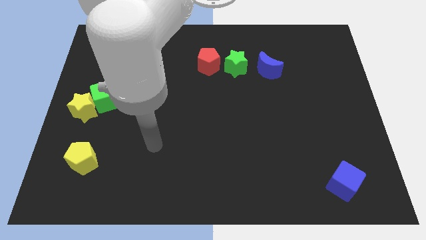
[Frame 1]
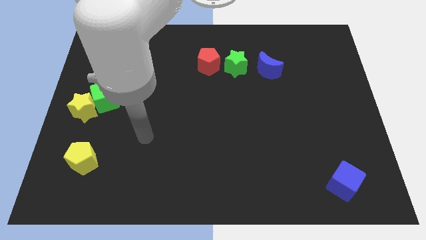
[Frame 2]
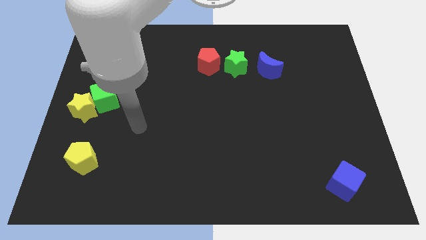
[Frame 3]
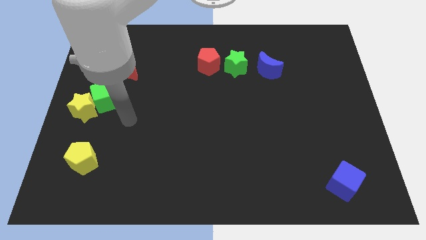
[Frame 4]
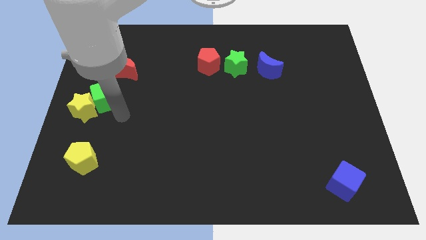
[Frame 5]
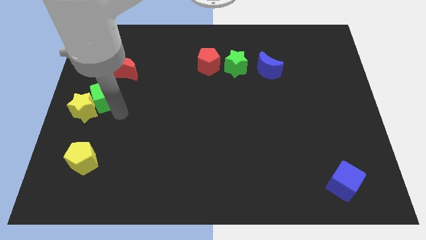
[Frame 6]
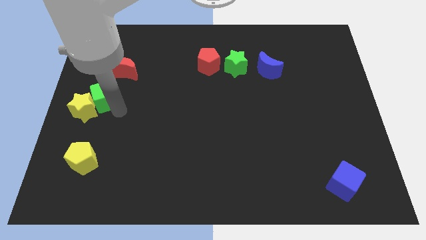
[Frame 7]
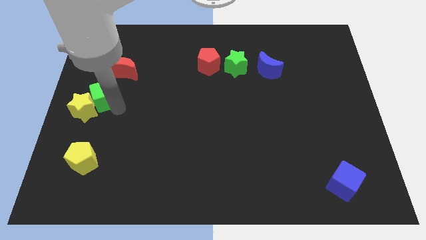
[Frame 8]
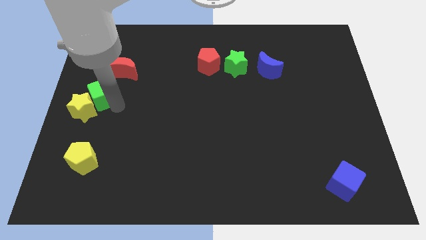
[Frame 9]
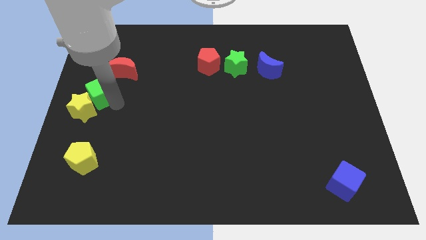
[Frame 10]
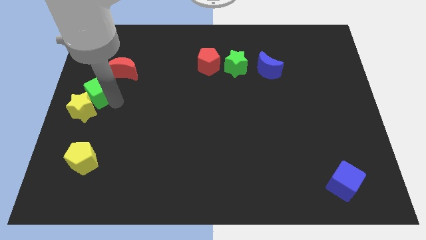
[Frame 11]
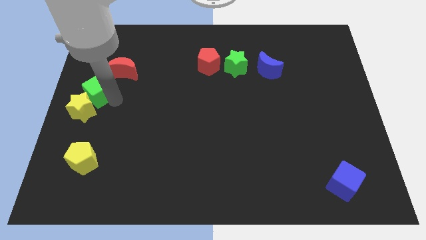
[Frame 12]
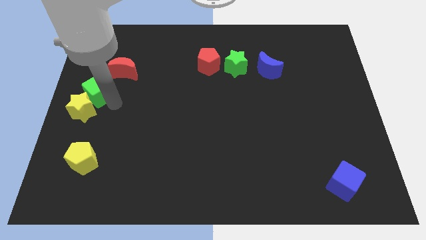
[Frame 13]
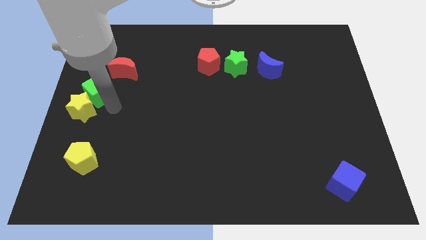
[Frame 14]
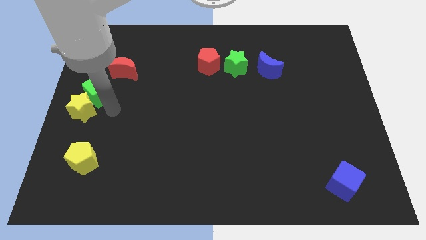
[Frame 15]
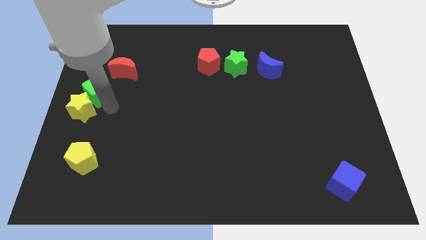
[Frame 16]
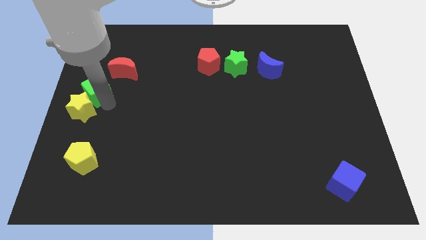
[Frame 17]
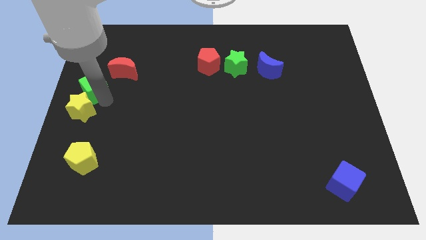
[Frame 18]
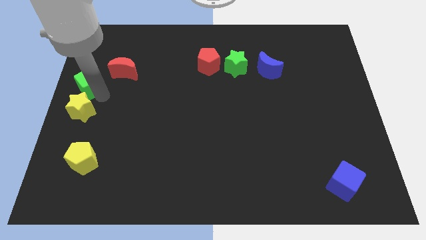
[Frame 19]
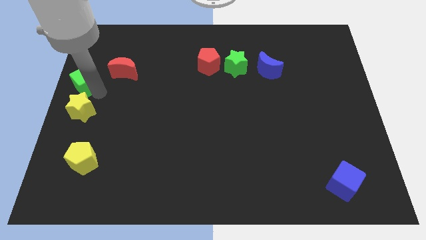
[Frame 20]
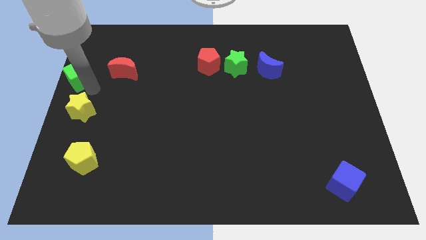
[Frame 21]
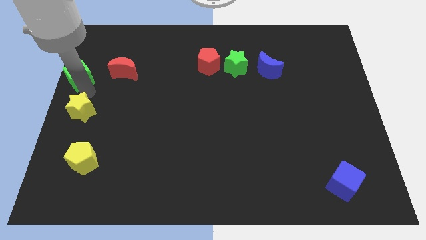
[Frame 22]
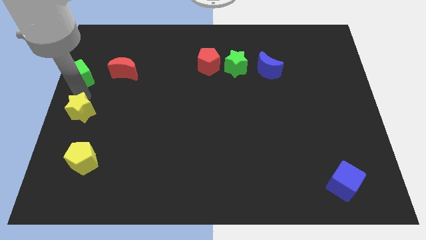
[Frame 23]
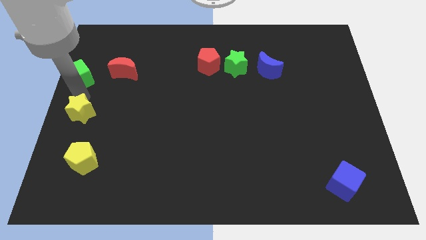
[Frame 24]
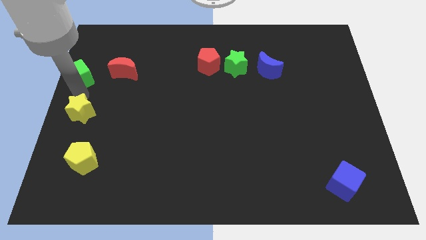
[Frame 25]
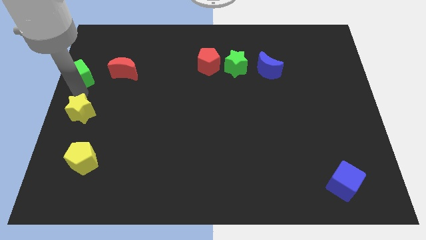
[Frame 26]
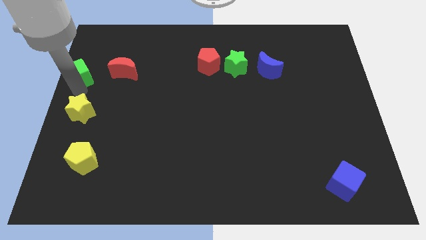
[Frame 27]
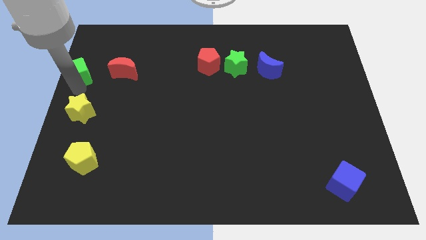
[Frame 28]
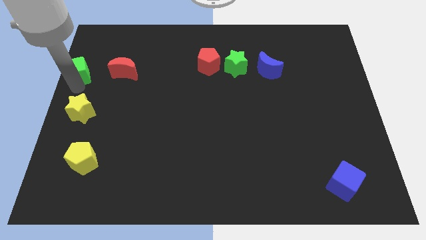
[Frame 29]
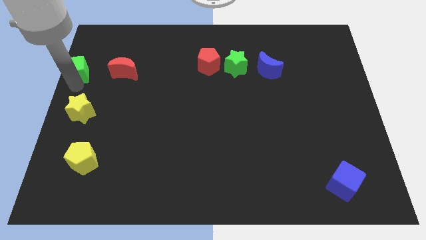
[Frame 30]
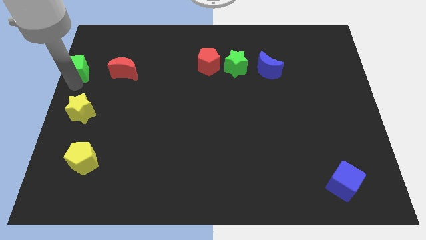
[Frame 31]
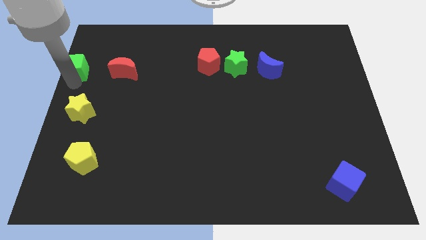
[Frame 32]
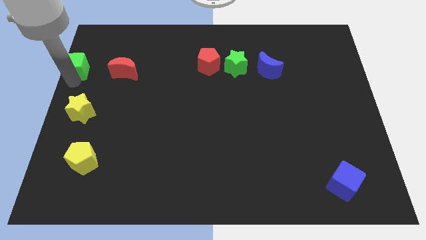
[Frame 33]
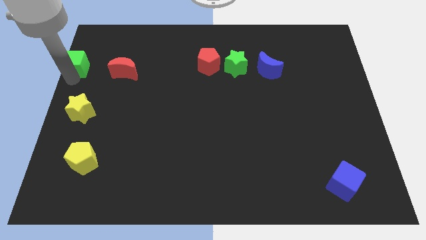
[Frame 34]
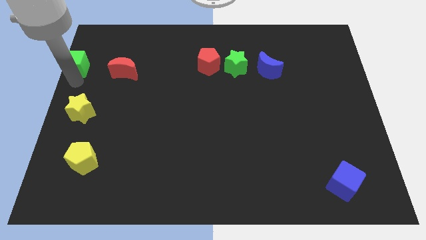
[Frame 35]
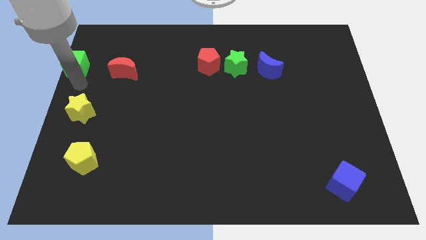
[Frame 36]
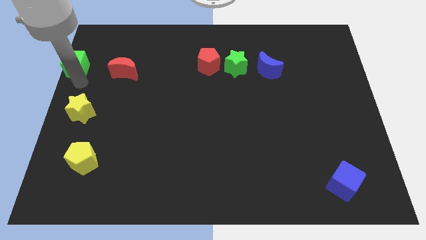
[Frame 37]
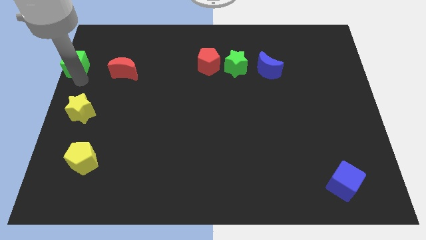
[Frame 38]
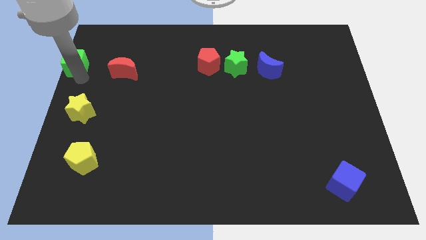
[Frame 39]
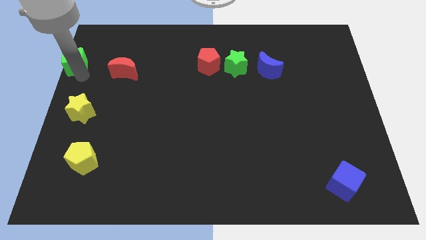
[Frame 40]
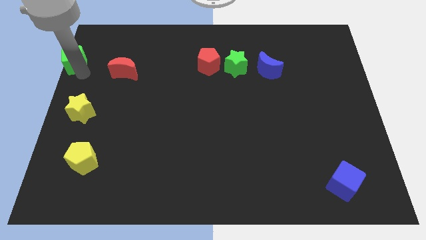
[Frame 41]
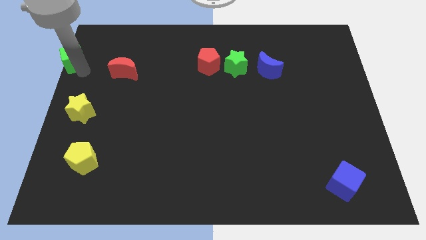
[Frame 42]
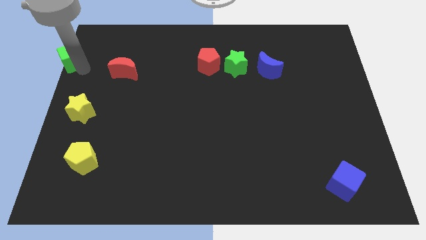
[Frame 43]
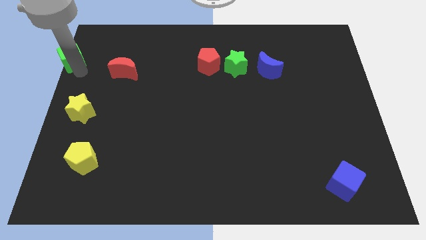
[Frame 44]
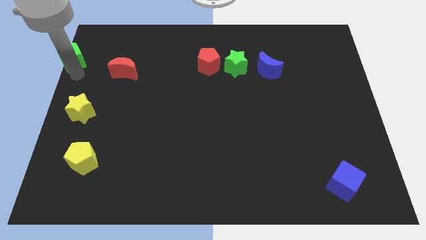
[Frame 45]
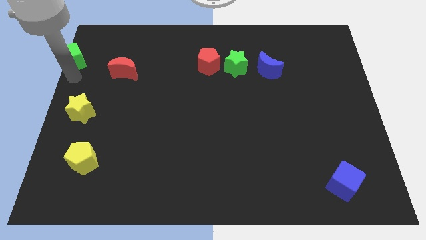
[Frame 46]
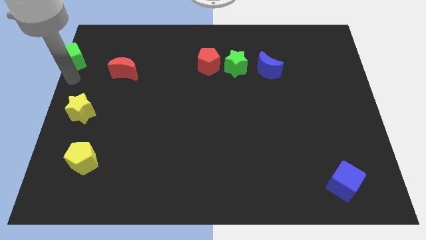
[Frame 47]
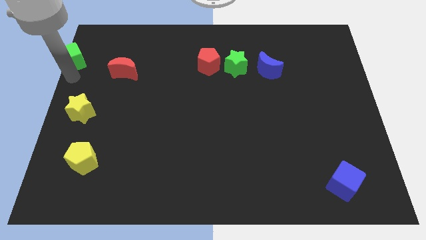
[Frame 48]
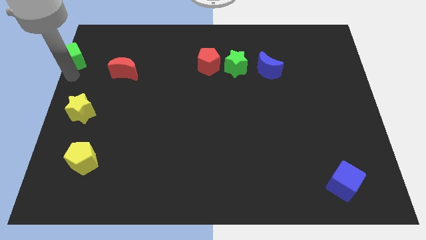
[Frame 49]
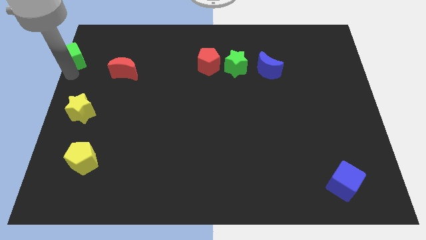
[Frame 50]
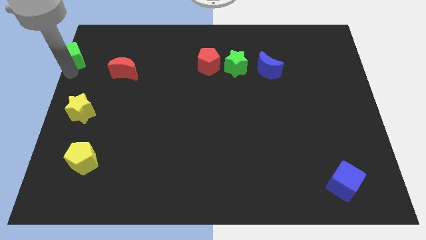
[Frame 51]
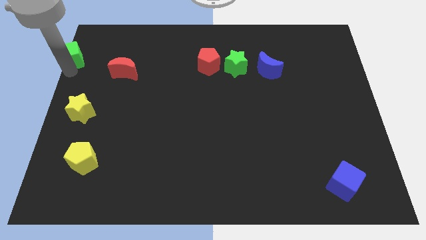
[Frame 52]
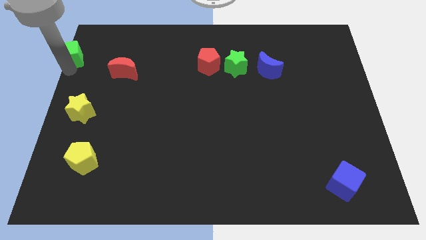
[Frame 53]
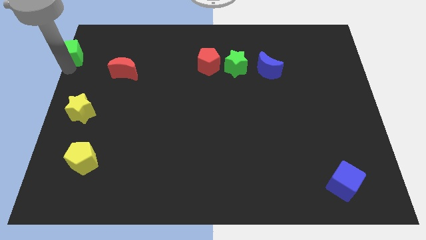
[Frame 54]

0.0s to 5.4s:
push the green cube to the upper left corner

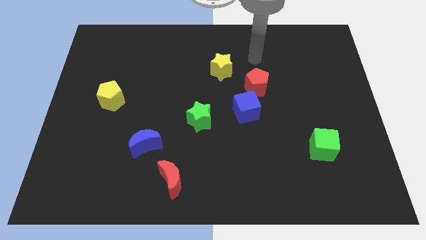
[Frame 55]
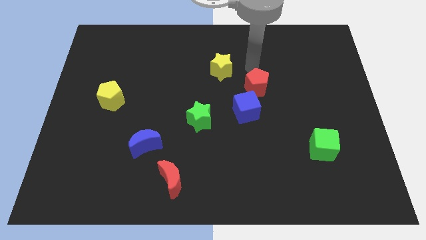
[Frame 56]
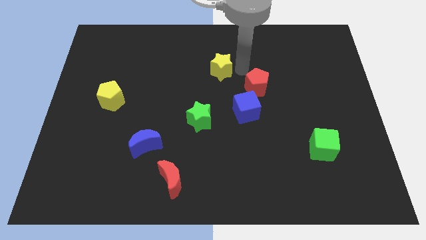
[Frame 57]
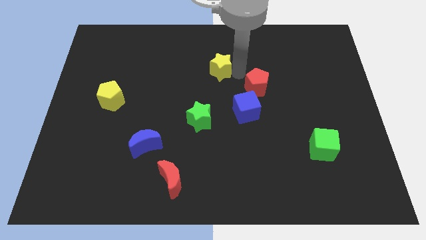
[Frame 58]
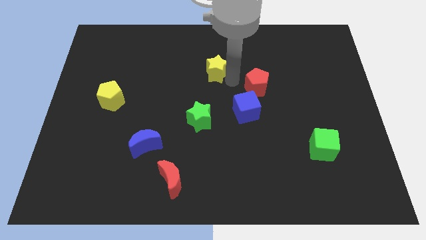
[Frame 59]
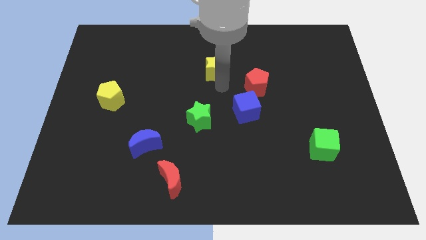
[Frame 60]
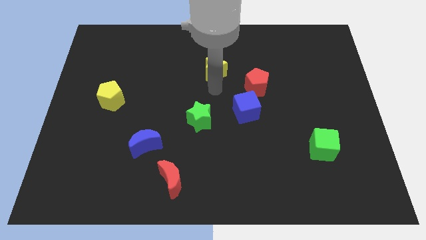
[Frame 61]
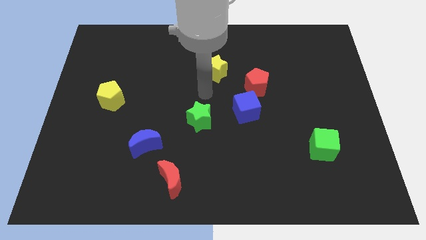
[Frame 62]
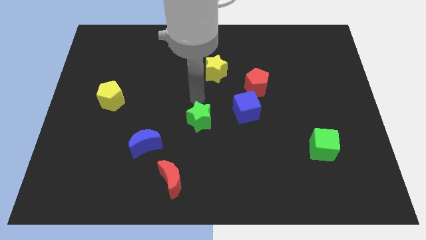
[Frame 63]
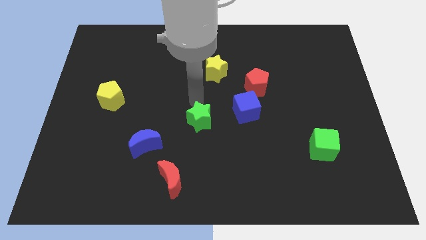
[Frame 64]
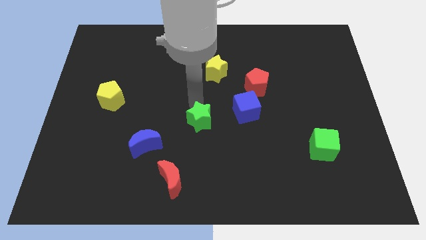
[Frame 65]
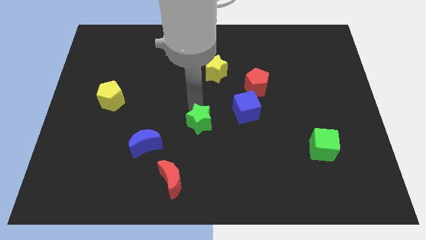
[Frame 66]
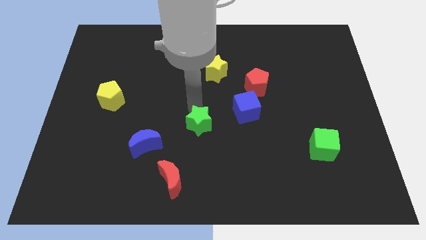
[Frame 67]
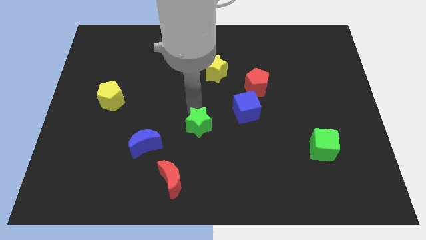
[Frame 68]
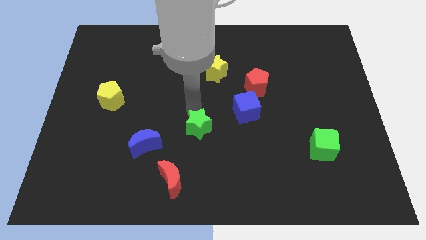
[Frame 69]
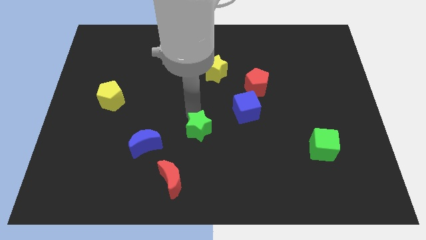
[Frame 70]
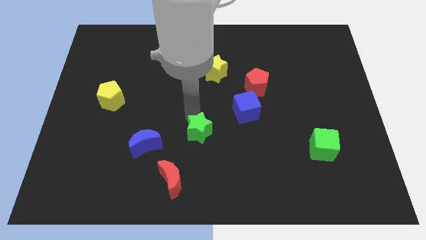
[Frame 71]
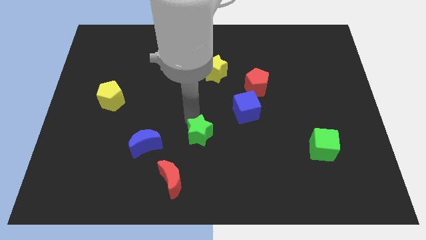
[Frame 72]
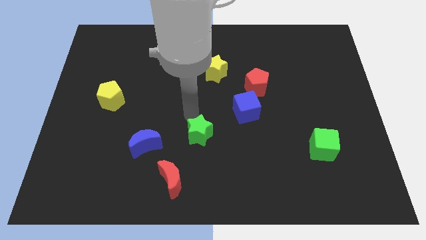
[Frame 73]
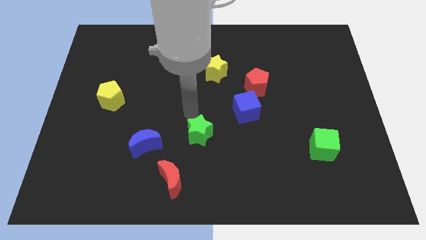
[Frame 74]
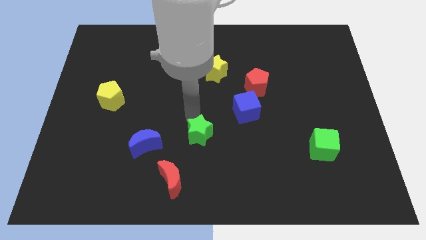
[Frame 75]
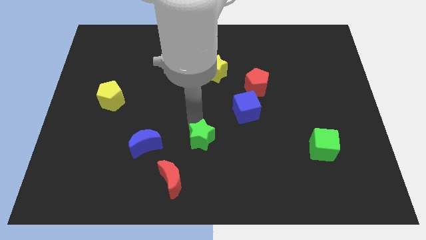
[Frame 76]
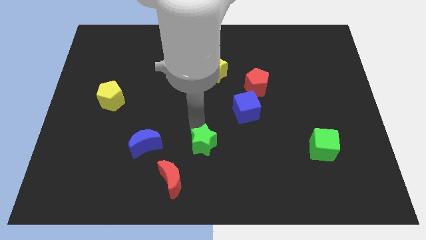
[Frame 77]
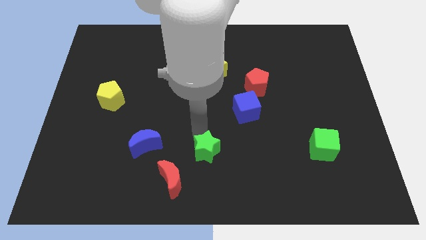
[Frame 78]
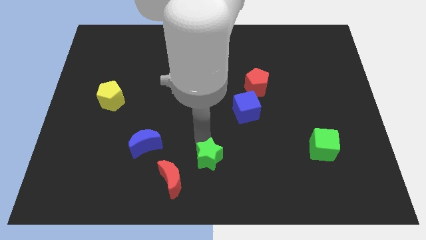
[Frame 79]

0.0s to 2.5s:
slide the green star to the bottom
